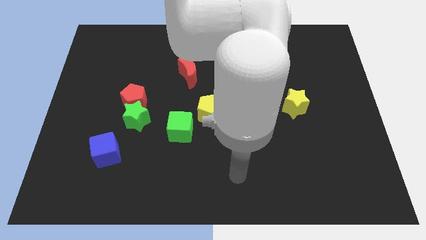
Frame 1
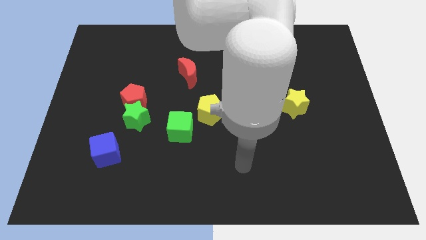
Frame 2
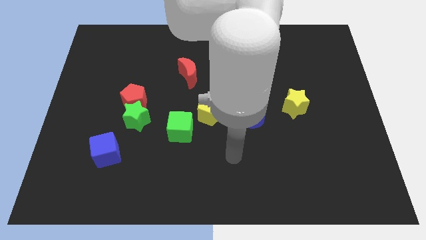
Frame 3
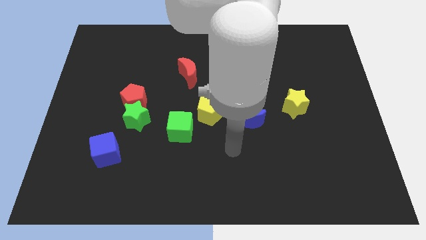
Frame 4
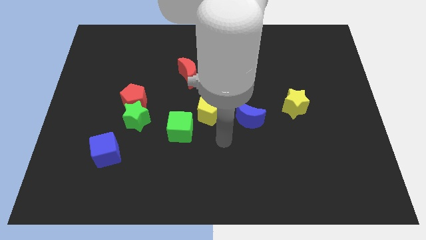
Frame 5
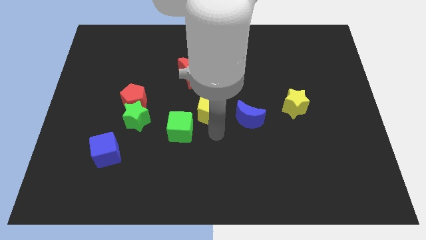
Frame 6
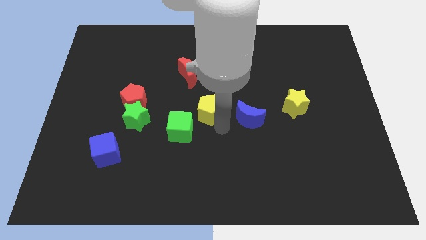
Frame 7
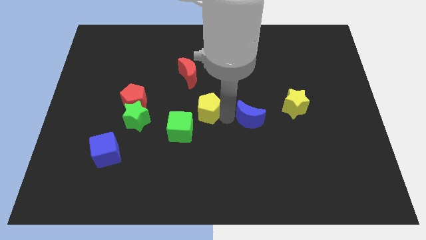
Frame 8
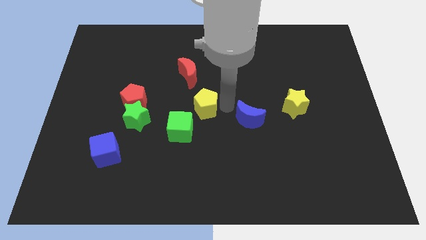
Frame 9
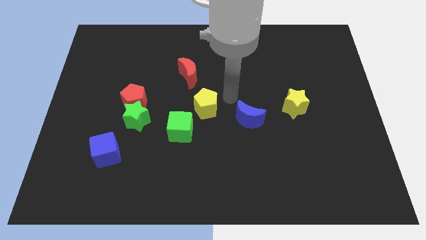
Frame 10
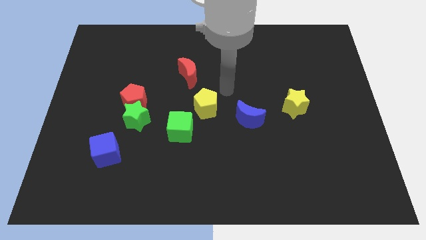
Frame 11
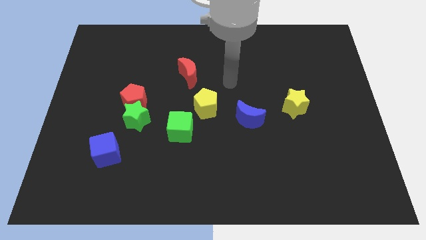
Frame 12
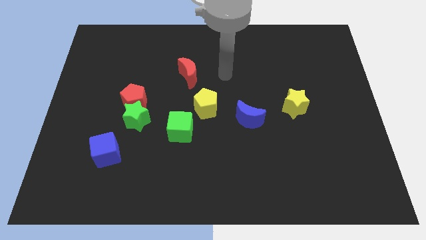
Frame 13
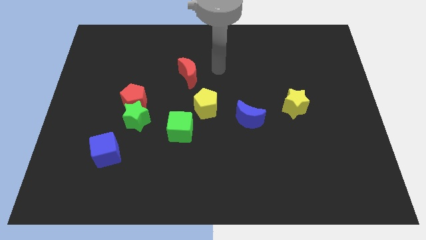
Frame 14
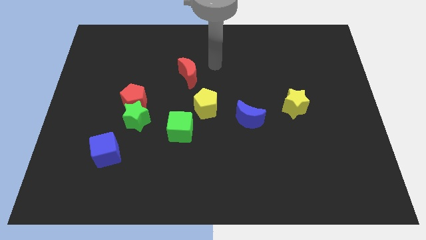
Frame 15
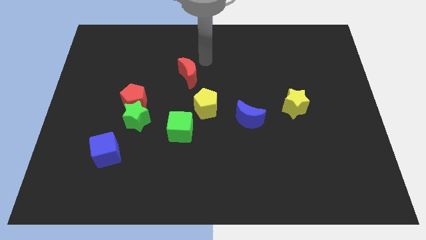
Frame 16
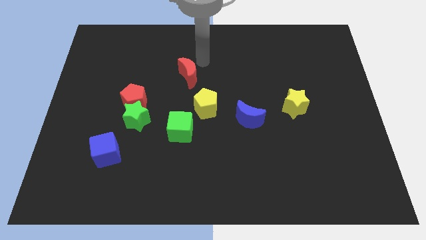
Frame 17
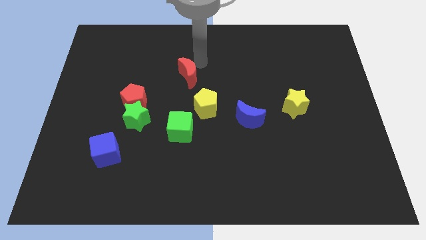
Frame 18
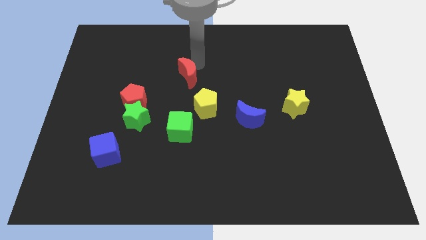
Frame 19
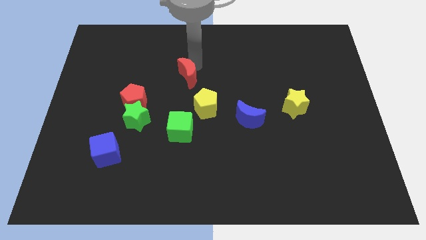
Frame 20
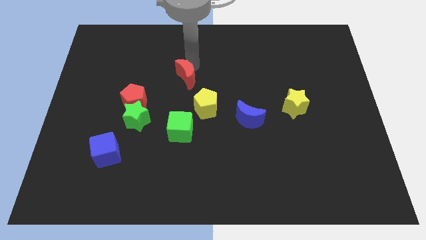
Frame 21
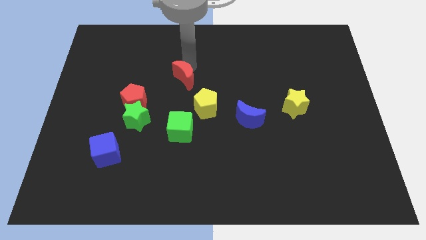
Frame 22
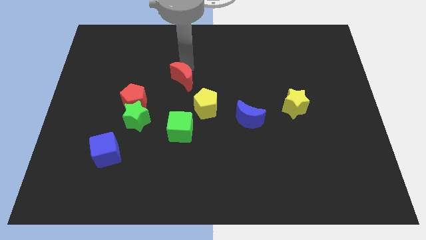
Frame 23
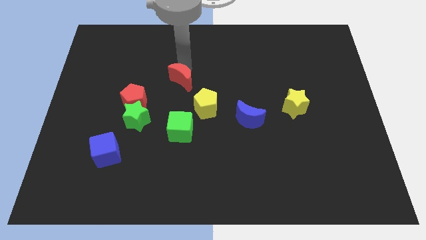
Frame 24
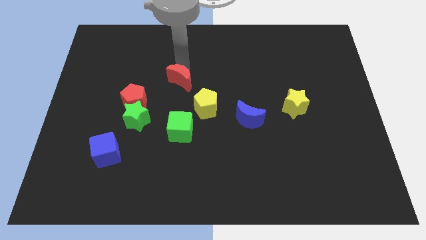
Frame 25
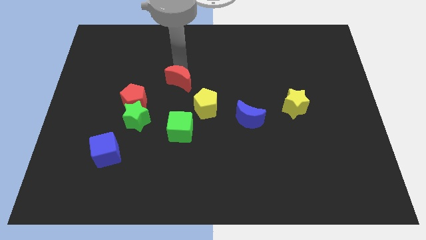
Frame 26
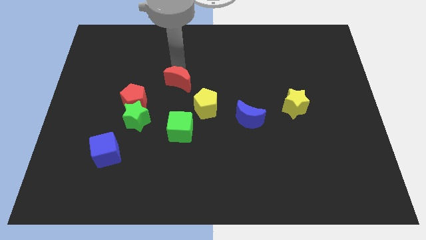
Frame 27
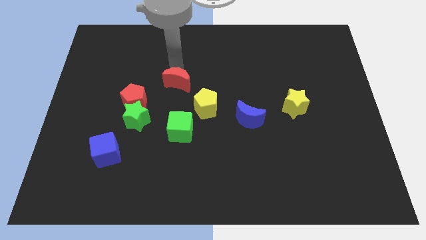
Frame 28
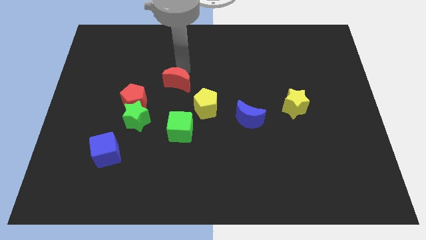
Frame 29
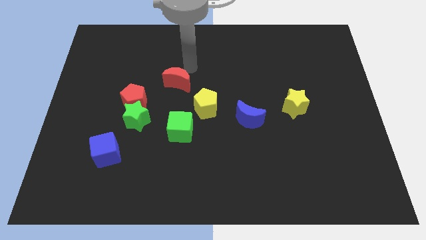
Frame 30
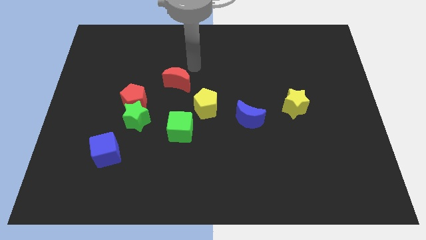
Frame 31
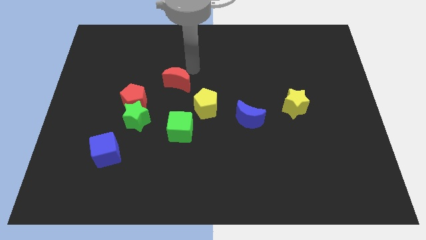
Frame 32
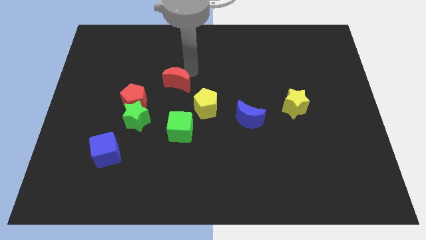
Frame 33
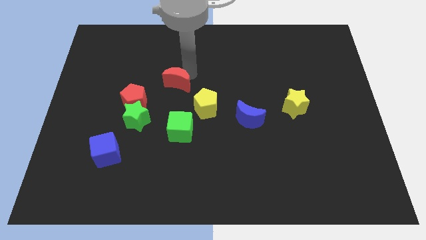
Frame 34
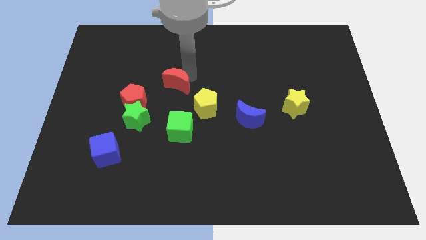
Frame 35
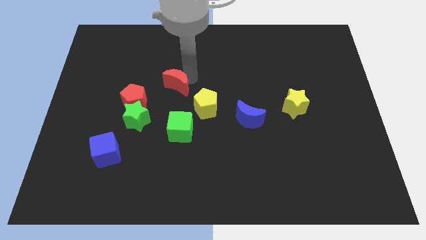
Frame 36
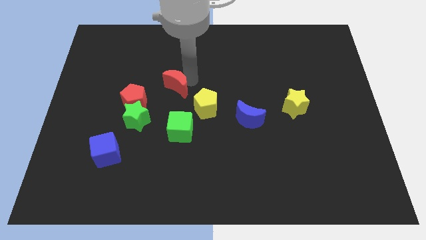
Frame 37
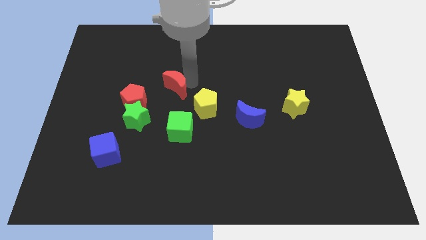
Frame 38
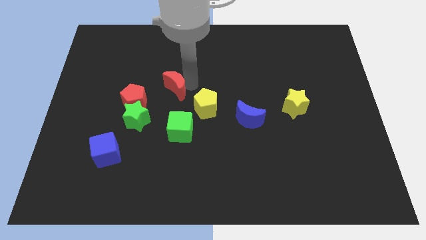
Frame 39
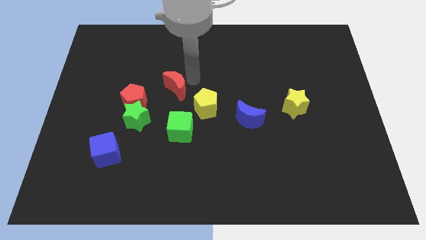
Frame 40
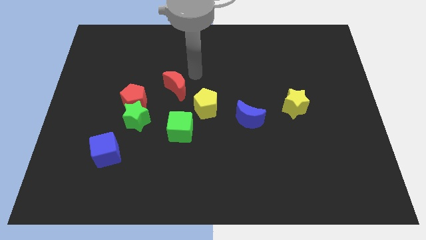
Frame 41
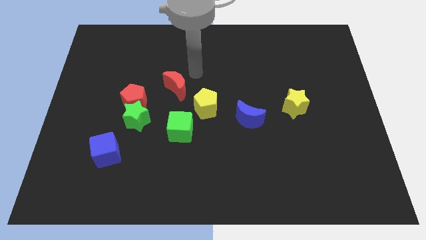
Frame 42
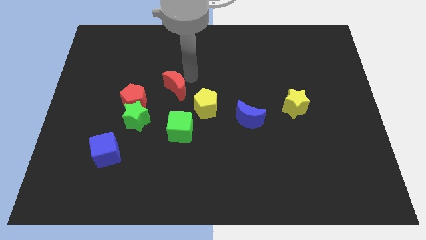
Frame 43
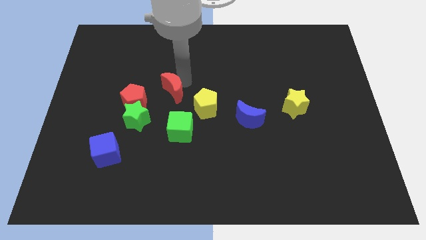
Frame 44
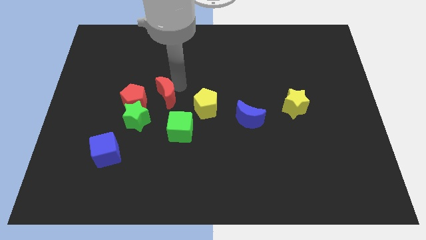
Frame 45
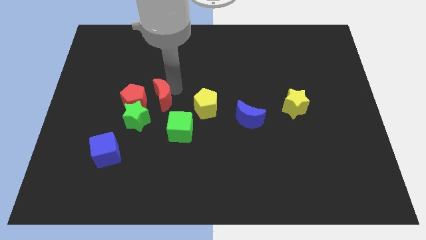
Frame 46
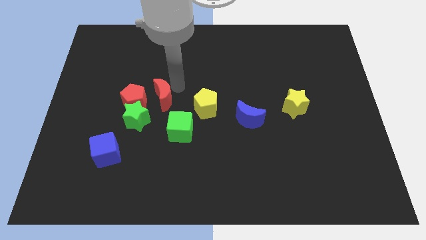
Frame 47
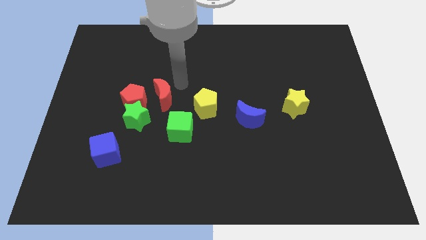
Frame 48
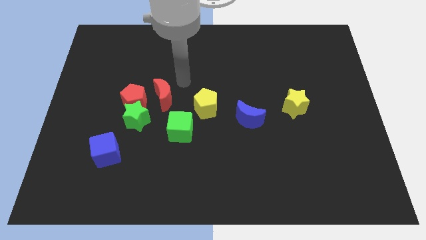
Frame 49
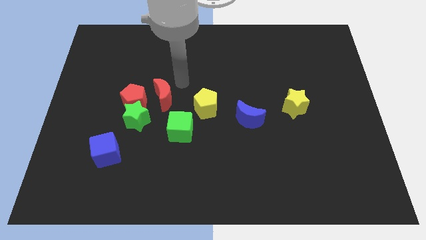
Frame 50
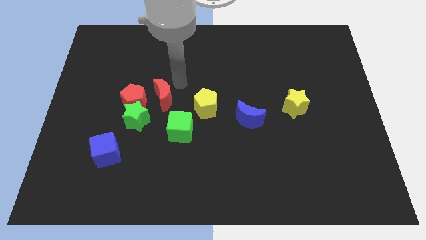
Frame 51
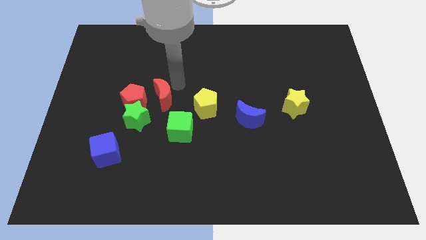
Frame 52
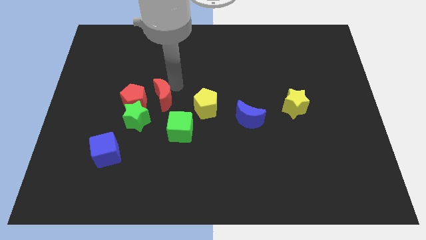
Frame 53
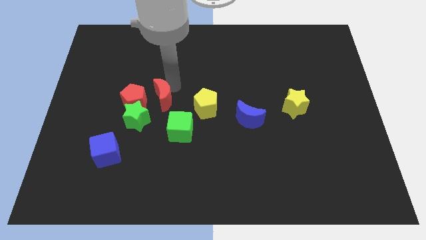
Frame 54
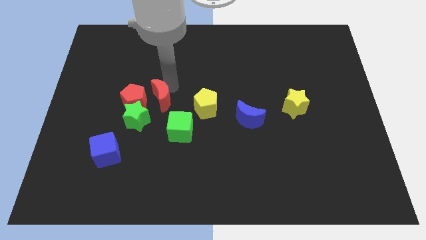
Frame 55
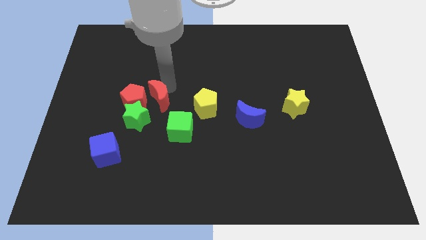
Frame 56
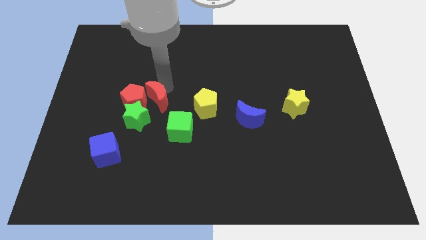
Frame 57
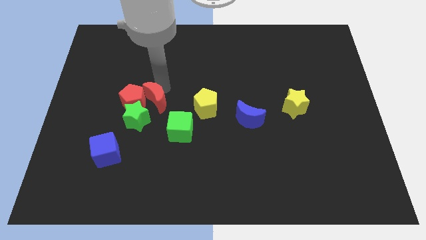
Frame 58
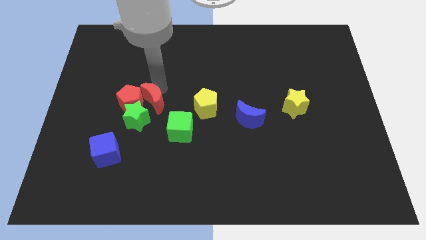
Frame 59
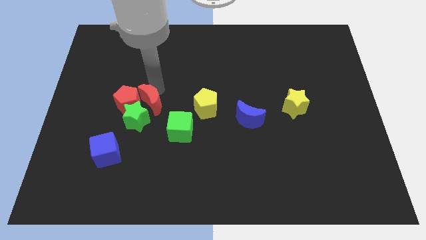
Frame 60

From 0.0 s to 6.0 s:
put the red moon towards the green star

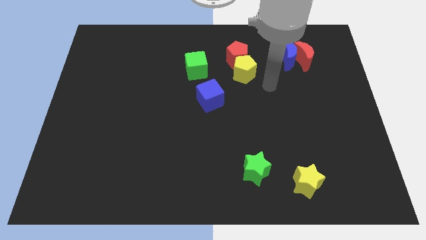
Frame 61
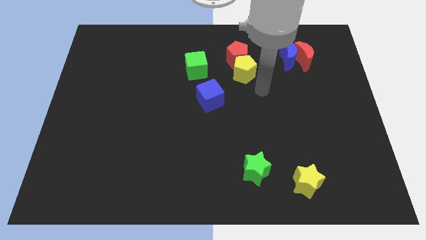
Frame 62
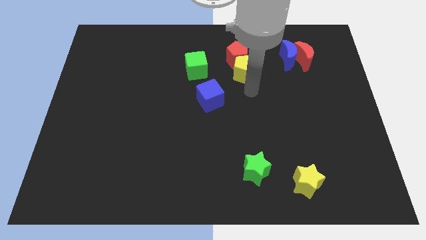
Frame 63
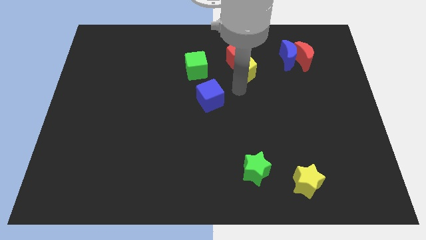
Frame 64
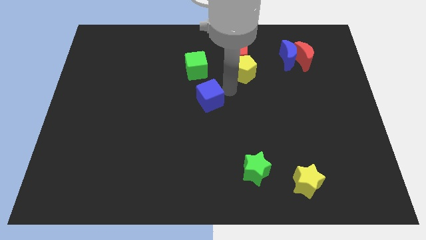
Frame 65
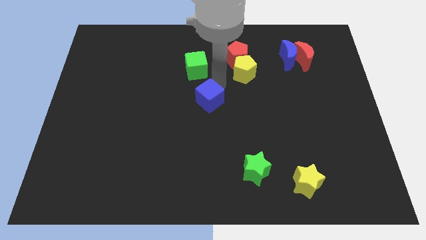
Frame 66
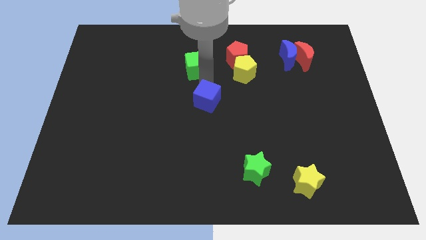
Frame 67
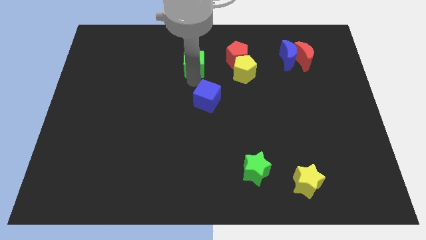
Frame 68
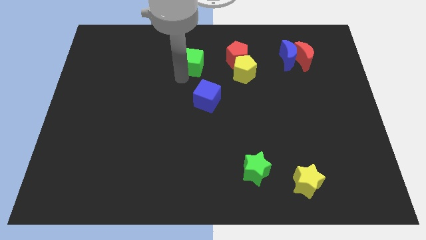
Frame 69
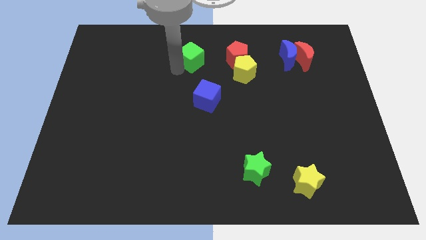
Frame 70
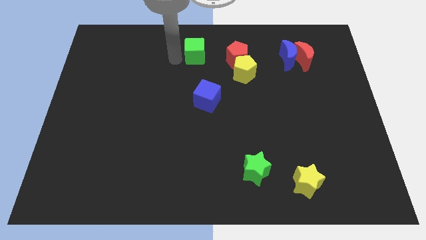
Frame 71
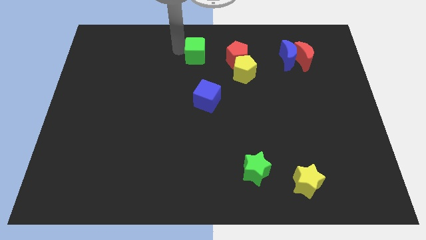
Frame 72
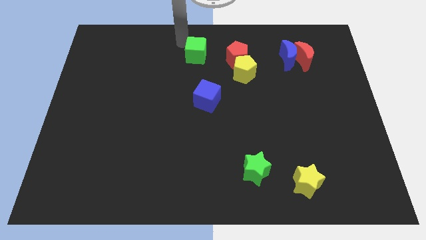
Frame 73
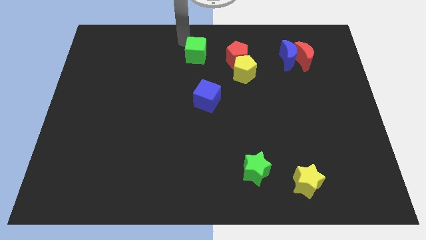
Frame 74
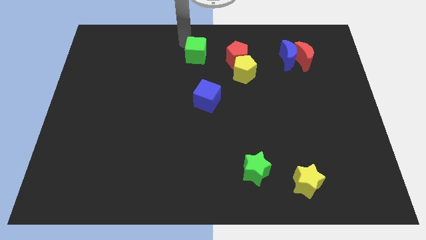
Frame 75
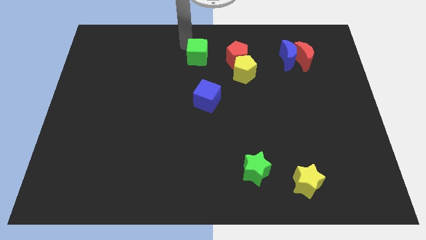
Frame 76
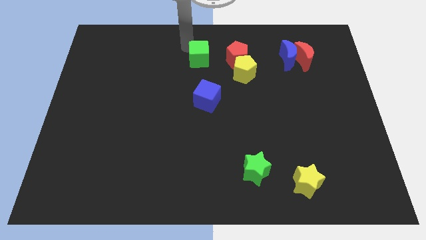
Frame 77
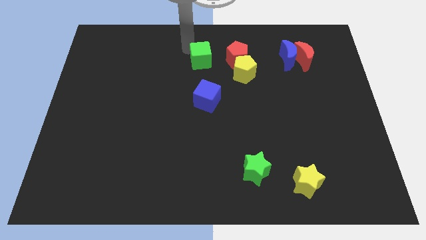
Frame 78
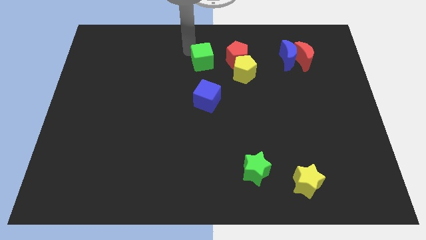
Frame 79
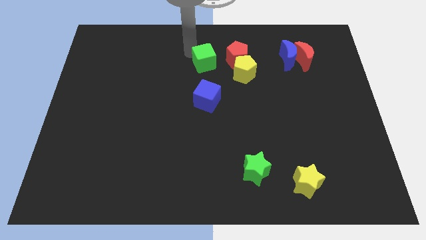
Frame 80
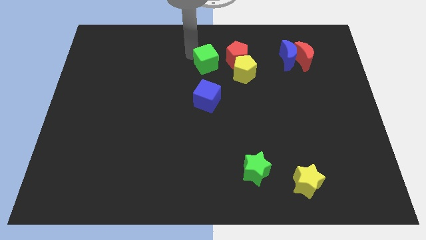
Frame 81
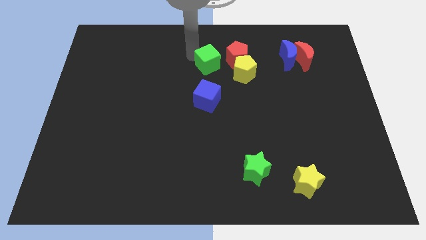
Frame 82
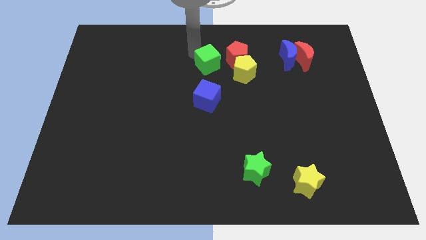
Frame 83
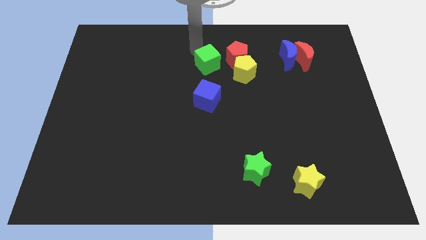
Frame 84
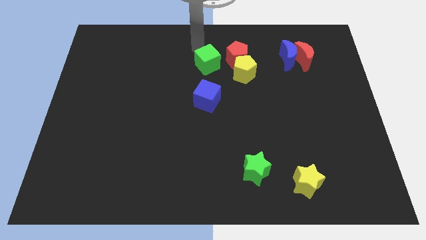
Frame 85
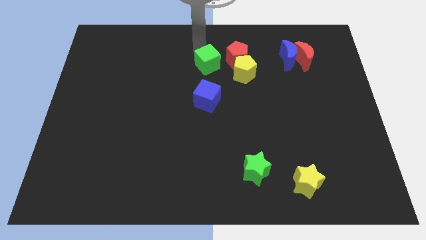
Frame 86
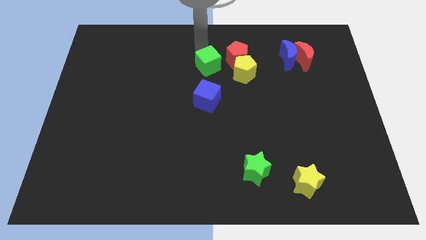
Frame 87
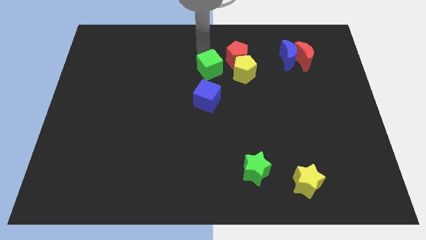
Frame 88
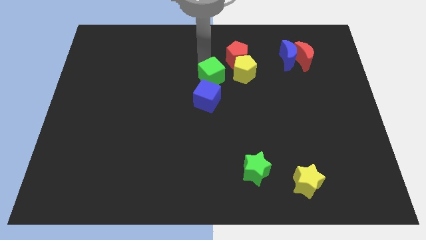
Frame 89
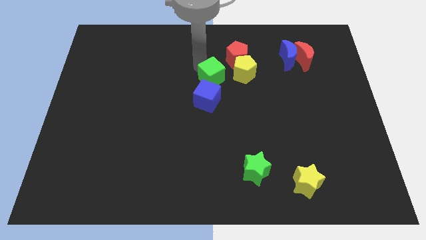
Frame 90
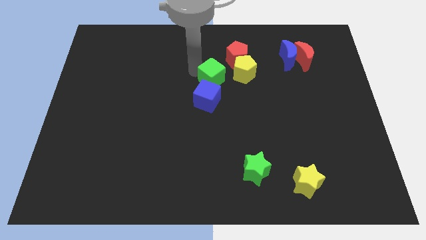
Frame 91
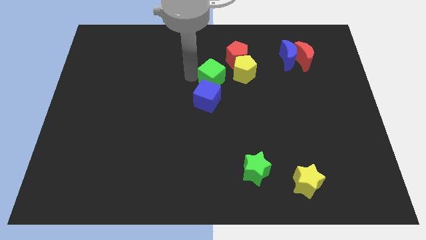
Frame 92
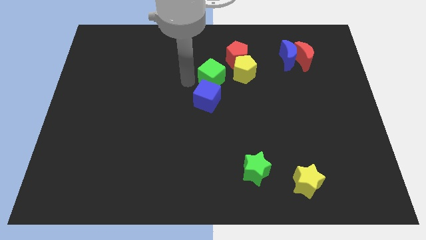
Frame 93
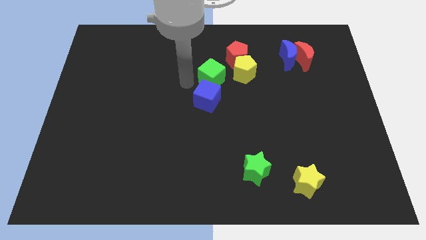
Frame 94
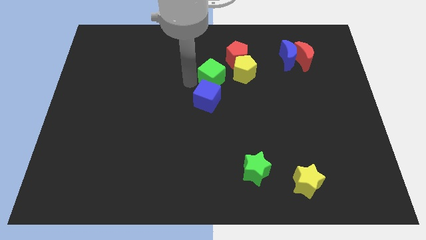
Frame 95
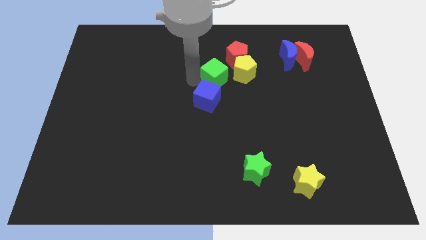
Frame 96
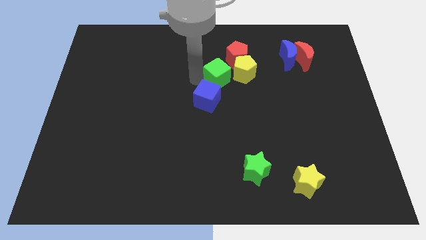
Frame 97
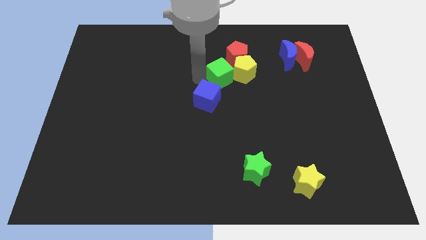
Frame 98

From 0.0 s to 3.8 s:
move the green cube close to the yellow pentagon
